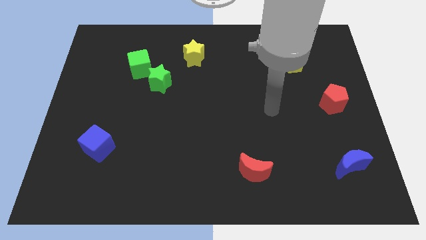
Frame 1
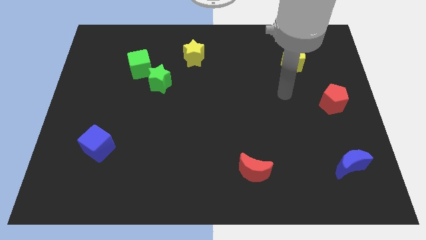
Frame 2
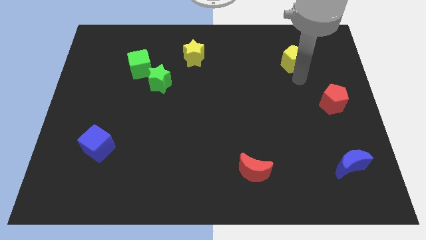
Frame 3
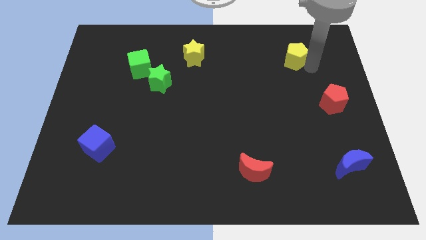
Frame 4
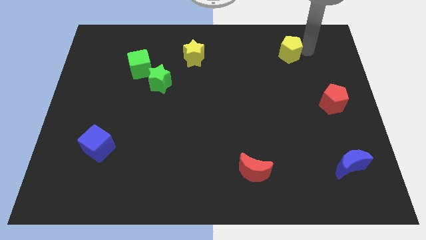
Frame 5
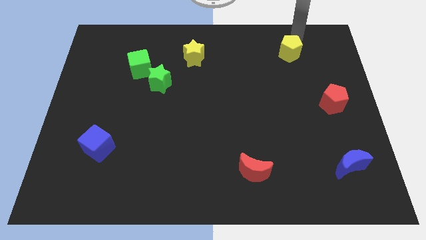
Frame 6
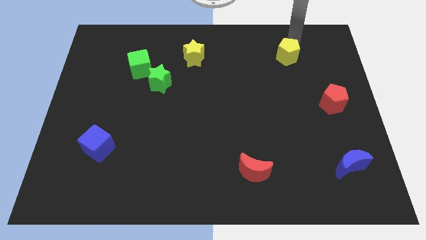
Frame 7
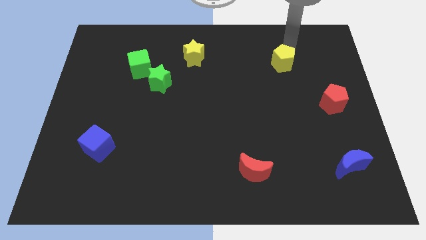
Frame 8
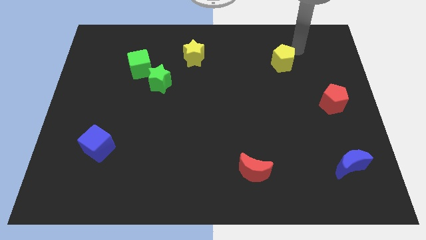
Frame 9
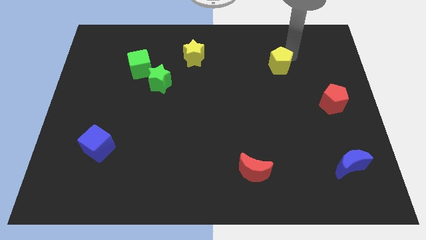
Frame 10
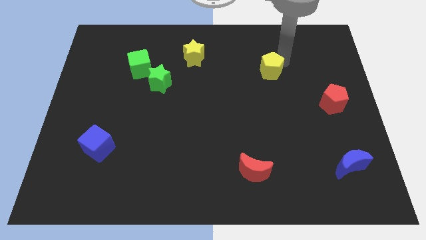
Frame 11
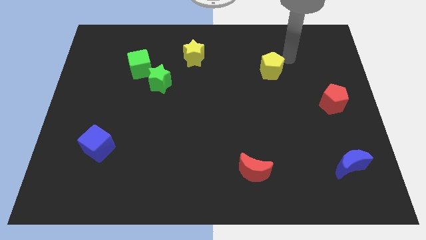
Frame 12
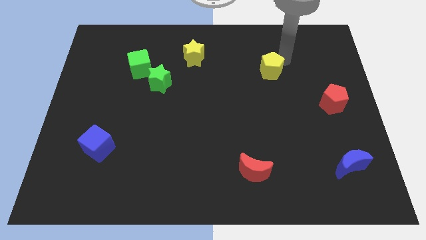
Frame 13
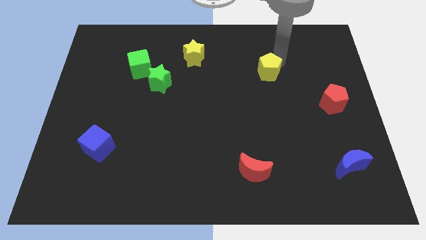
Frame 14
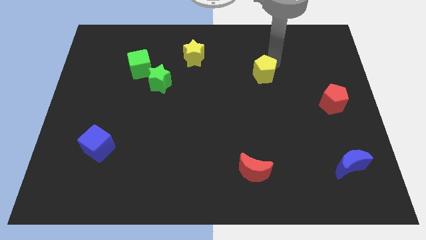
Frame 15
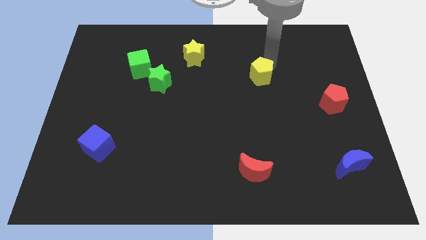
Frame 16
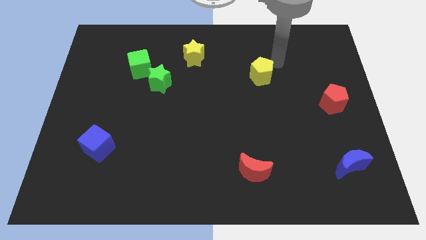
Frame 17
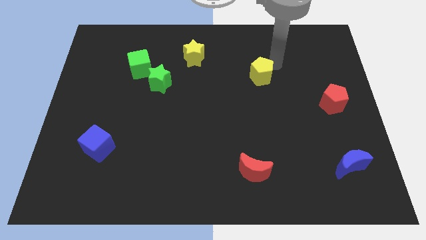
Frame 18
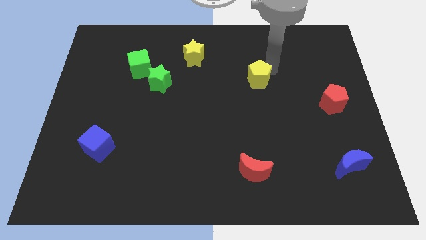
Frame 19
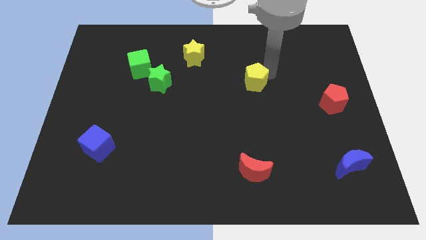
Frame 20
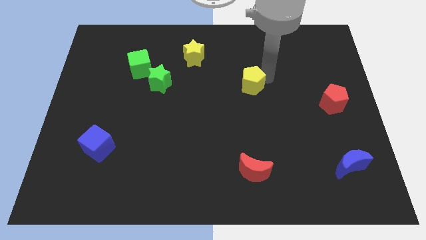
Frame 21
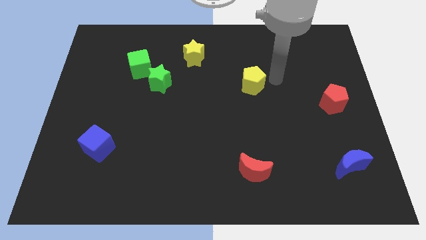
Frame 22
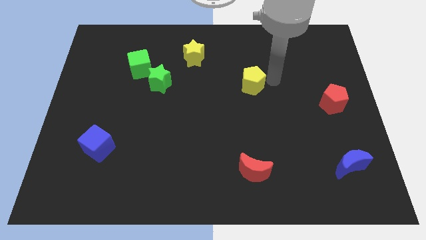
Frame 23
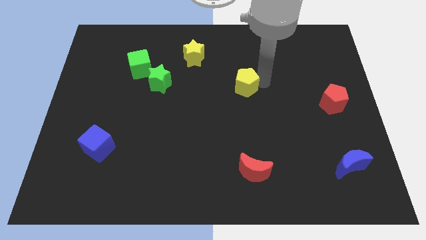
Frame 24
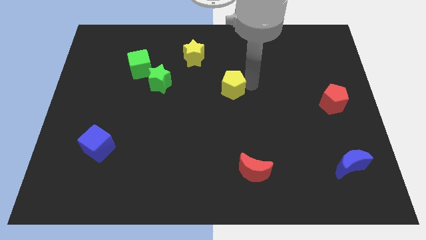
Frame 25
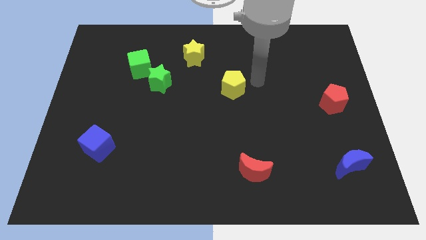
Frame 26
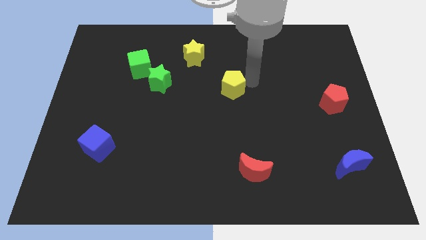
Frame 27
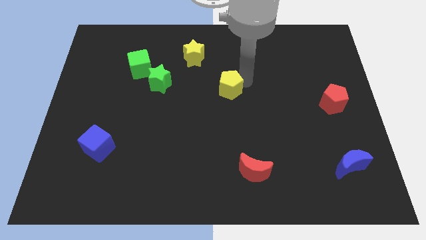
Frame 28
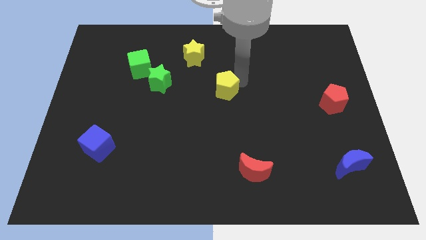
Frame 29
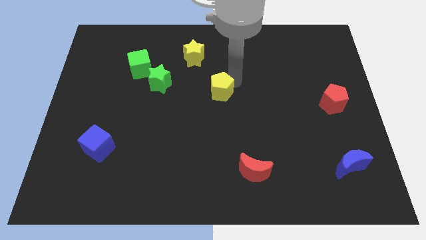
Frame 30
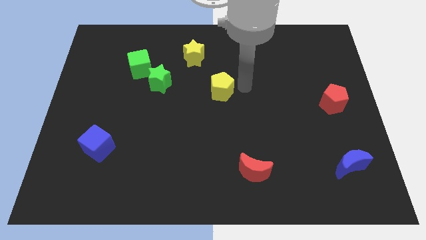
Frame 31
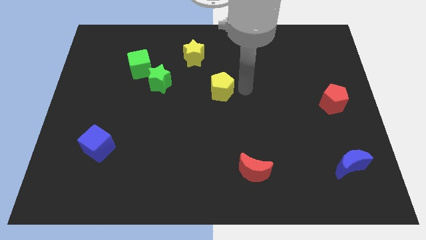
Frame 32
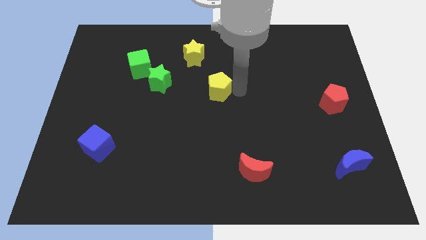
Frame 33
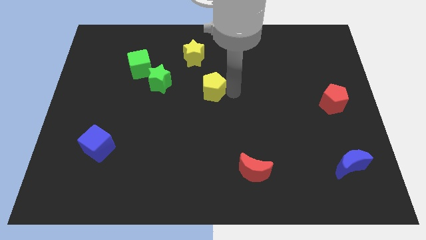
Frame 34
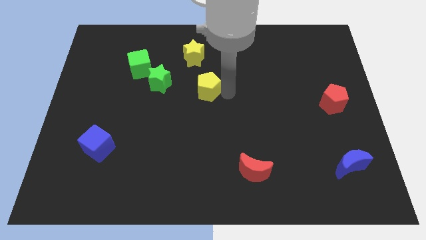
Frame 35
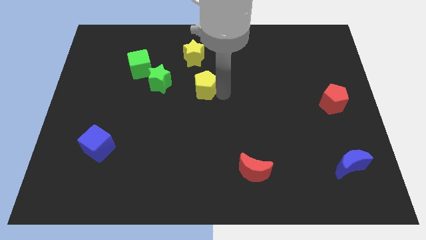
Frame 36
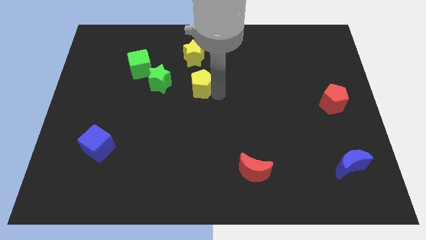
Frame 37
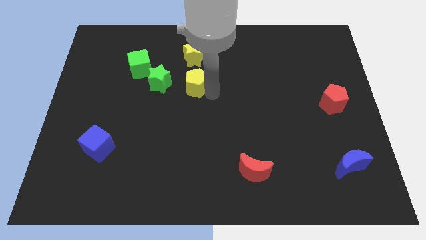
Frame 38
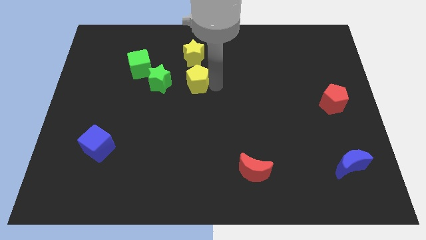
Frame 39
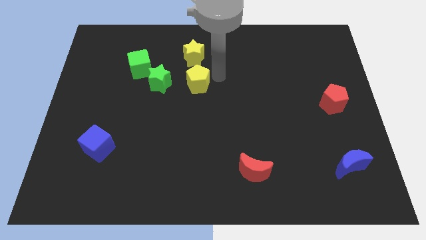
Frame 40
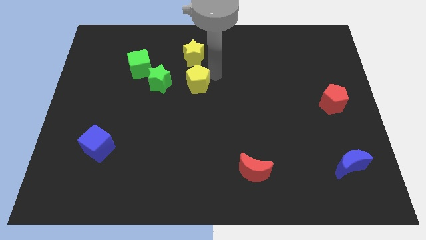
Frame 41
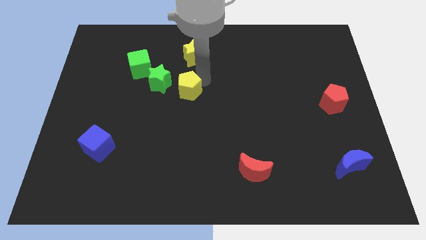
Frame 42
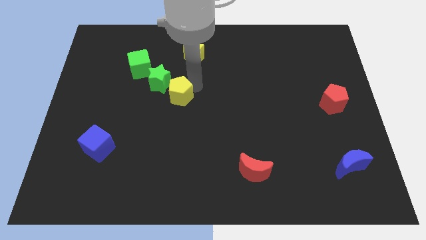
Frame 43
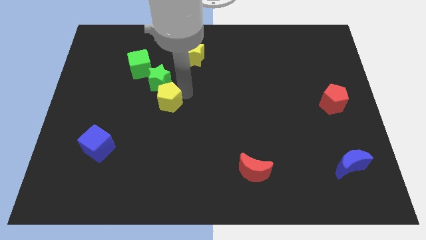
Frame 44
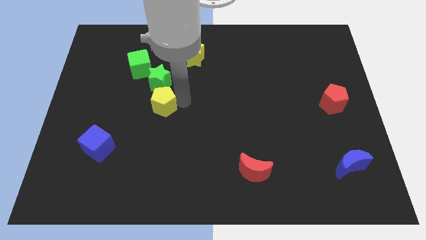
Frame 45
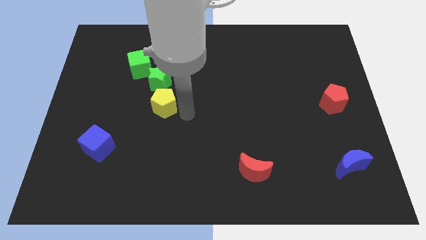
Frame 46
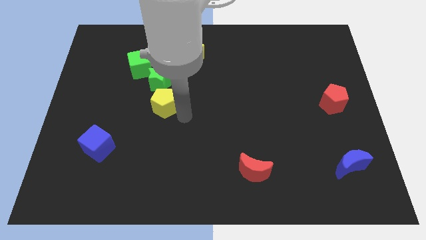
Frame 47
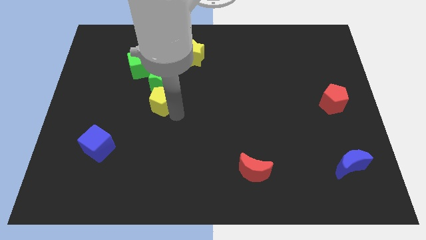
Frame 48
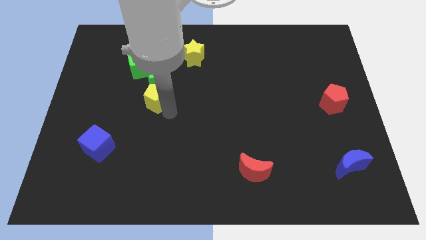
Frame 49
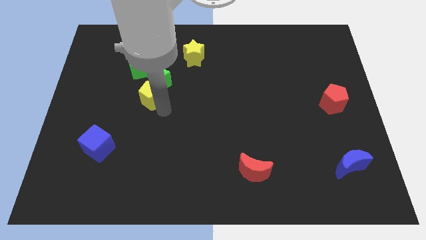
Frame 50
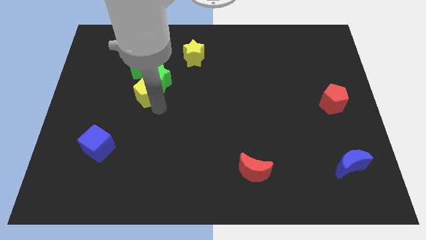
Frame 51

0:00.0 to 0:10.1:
put the yellow pentagon to the left of the green star

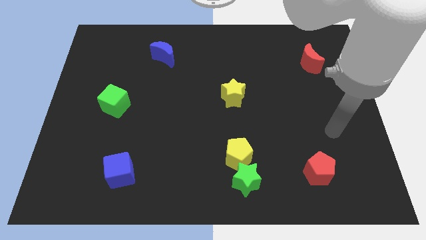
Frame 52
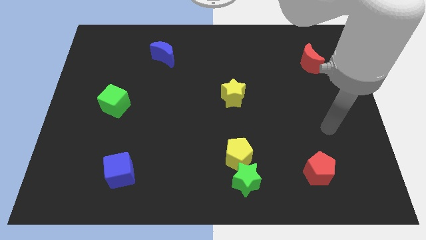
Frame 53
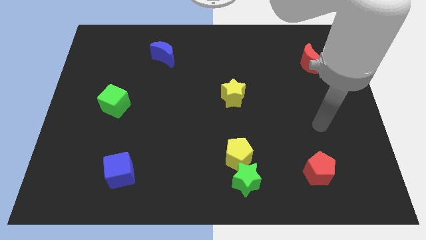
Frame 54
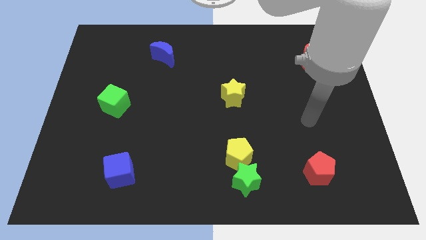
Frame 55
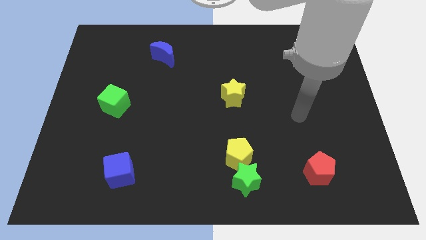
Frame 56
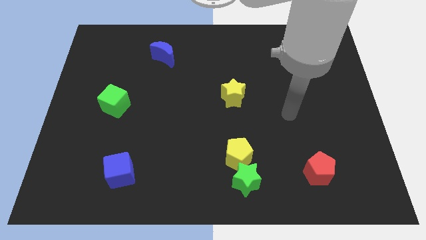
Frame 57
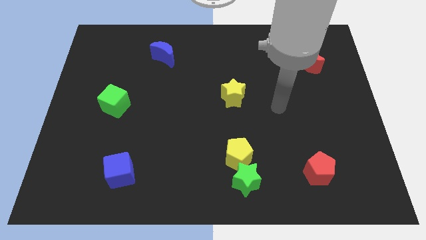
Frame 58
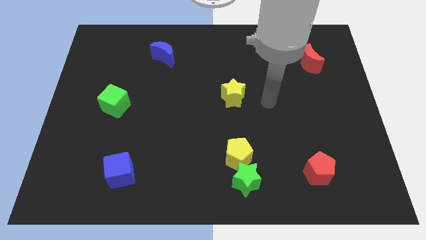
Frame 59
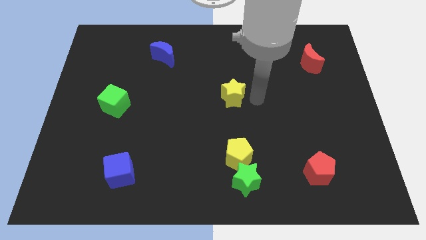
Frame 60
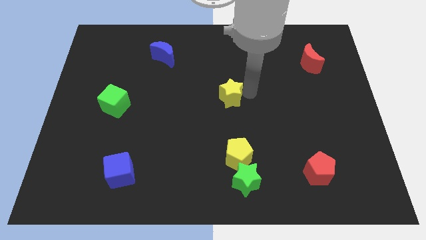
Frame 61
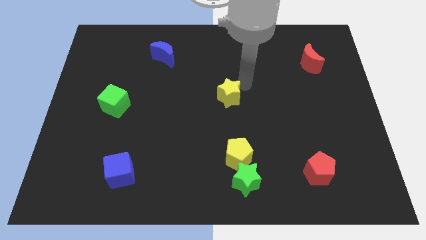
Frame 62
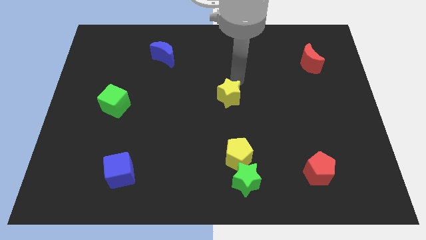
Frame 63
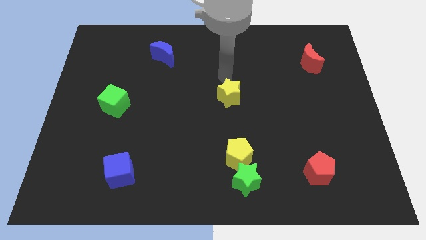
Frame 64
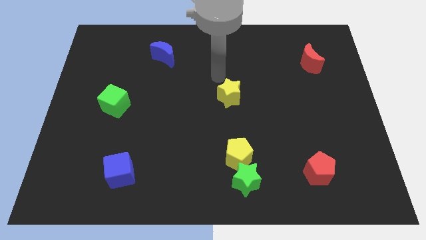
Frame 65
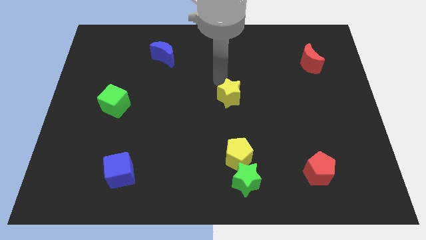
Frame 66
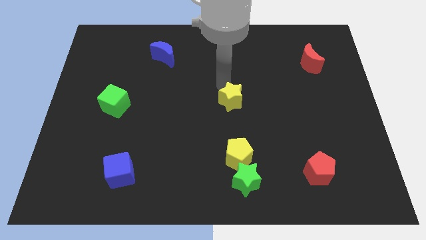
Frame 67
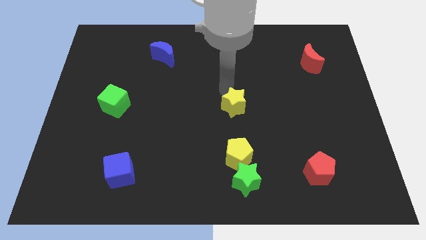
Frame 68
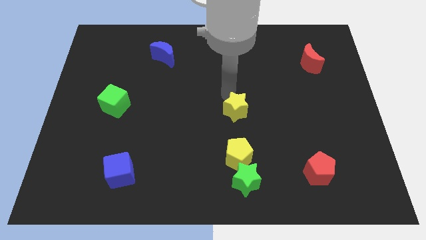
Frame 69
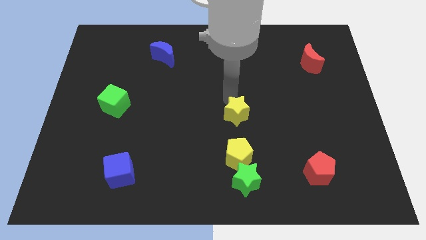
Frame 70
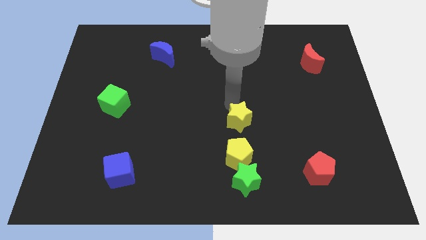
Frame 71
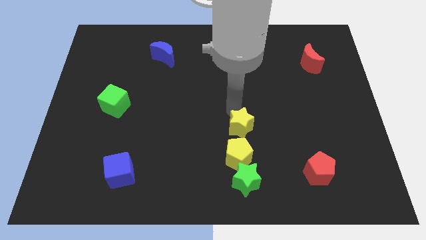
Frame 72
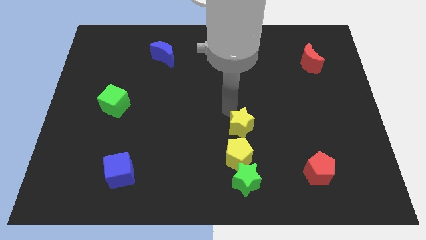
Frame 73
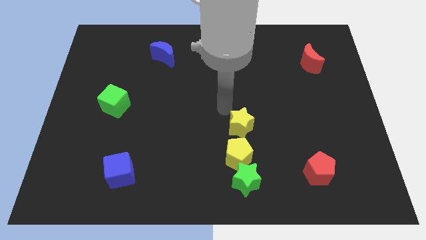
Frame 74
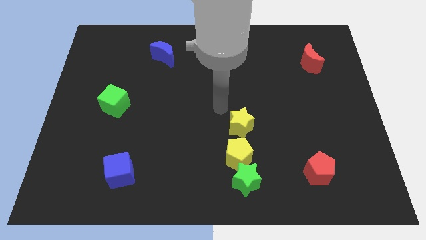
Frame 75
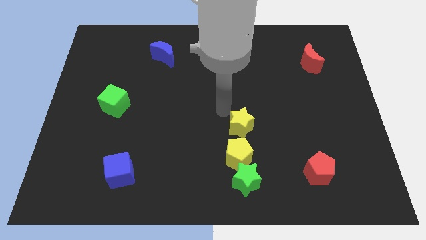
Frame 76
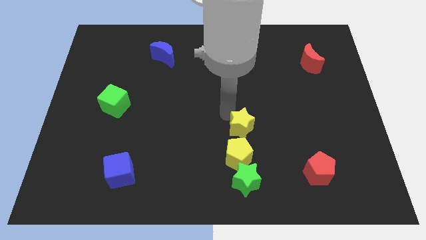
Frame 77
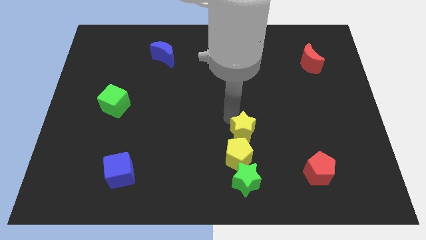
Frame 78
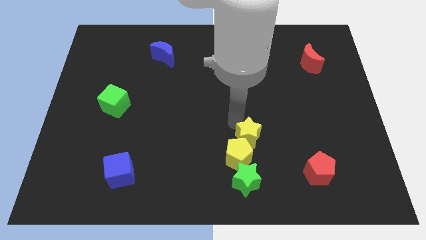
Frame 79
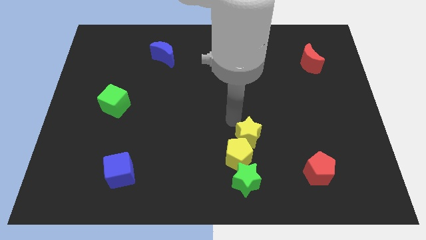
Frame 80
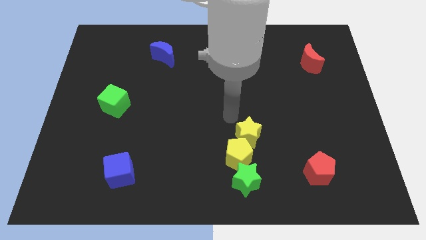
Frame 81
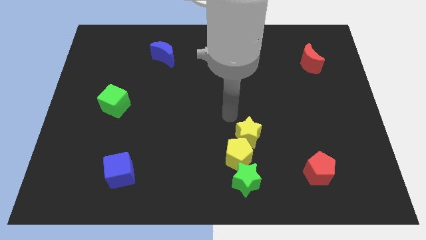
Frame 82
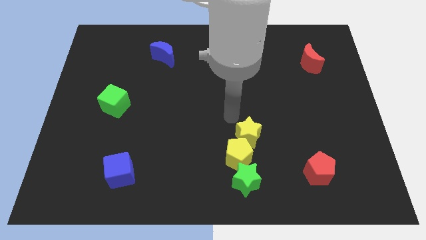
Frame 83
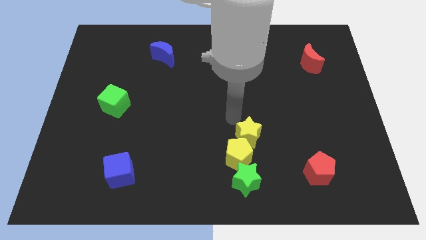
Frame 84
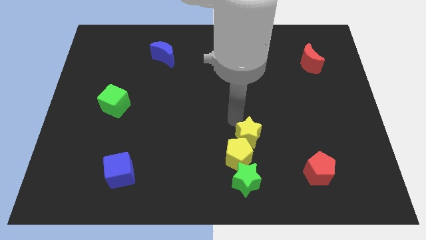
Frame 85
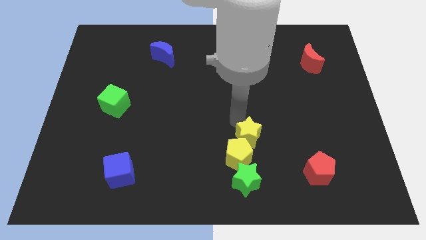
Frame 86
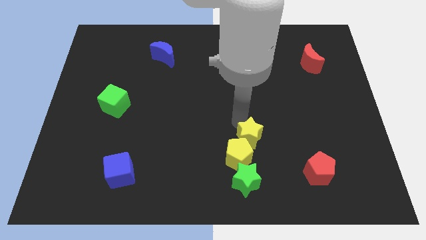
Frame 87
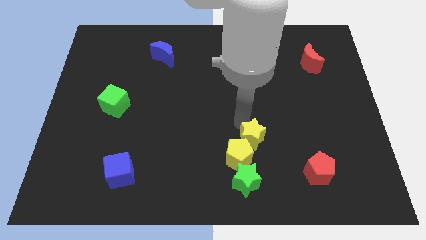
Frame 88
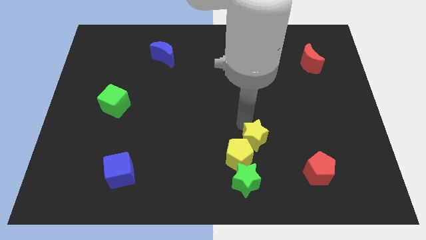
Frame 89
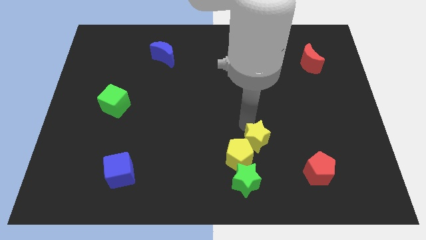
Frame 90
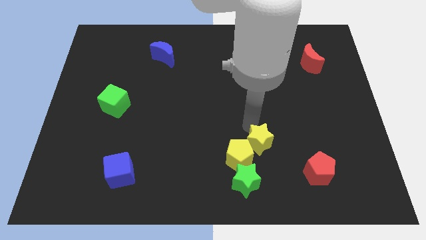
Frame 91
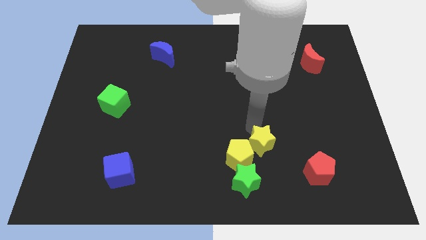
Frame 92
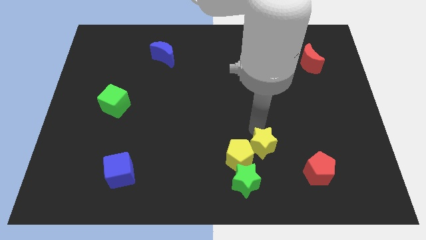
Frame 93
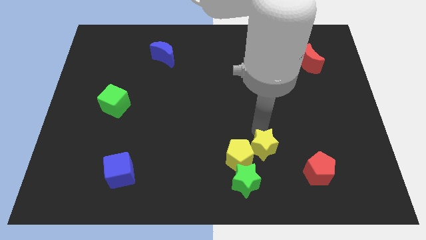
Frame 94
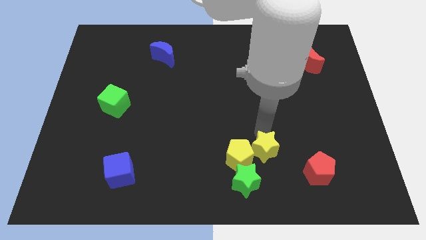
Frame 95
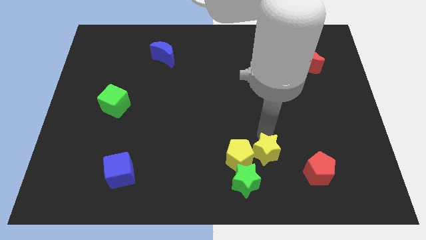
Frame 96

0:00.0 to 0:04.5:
slide the yellow star left of the red pentagon
